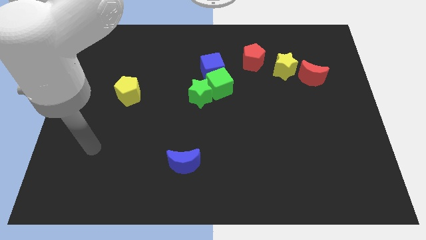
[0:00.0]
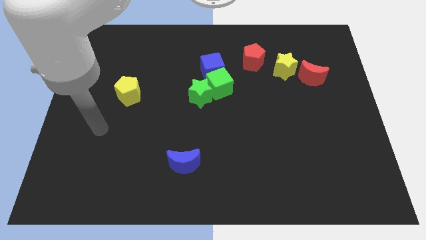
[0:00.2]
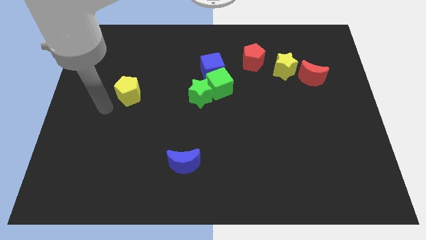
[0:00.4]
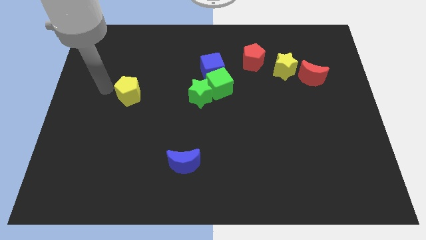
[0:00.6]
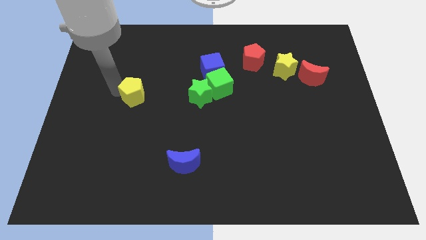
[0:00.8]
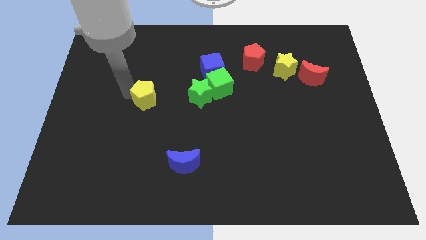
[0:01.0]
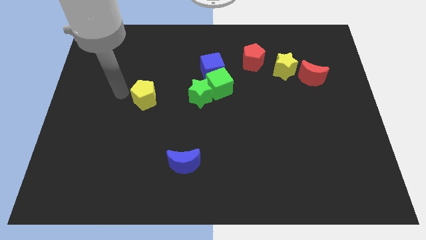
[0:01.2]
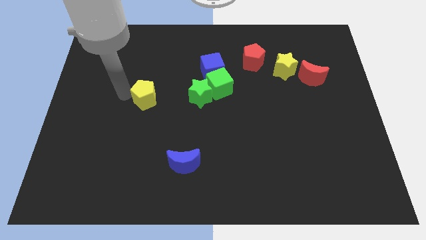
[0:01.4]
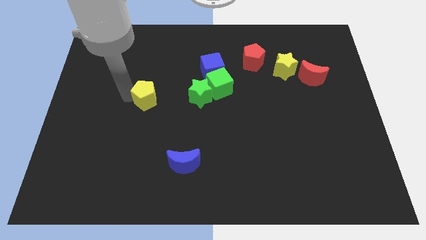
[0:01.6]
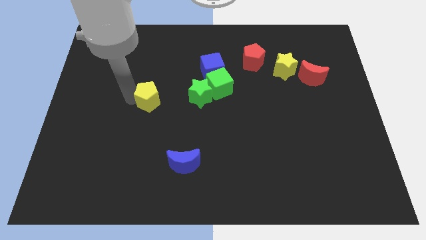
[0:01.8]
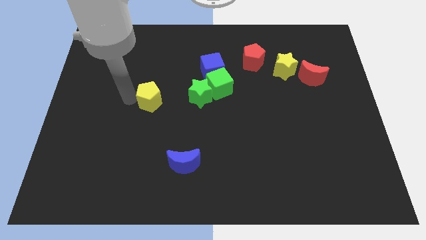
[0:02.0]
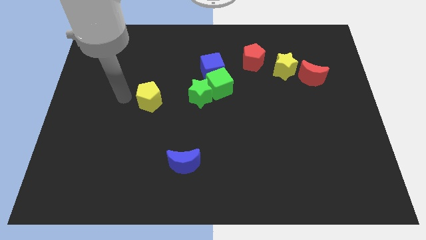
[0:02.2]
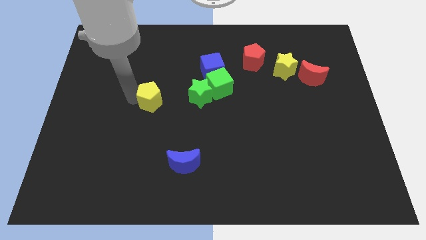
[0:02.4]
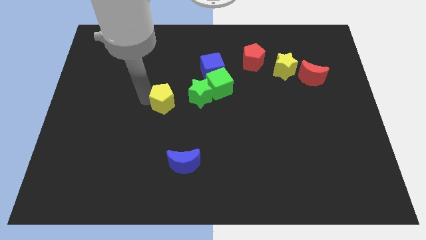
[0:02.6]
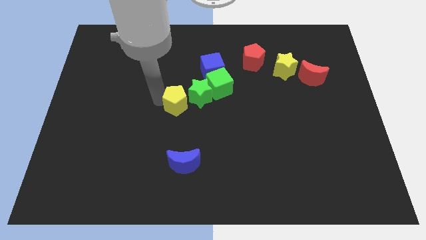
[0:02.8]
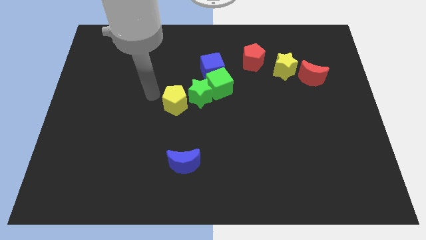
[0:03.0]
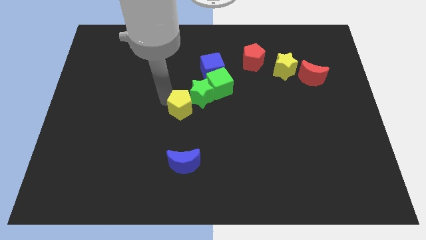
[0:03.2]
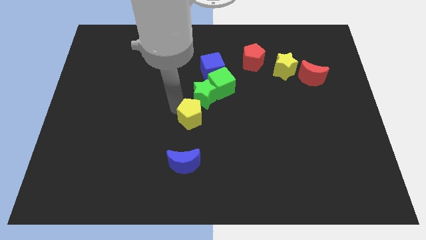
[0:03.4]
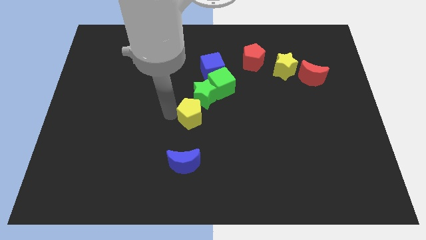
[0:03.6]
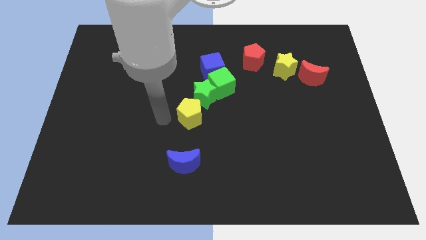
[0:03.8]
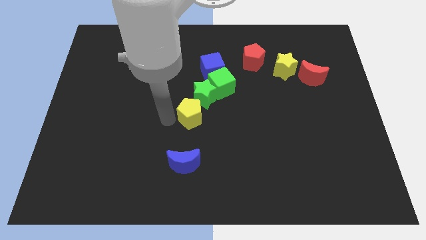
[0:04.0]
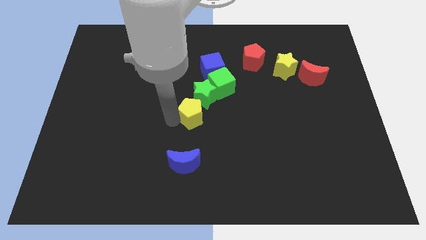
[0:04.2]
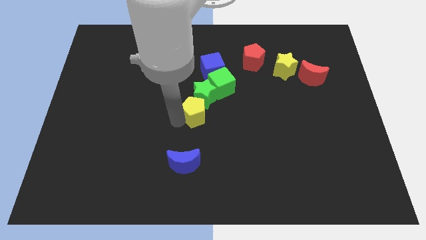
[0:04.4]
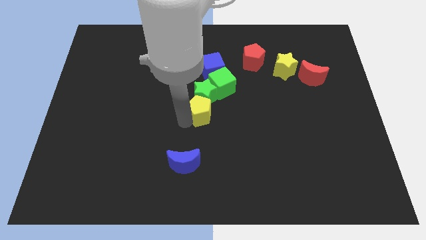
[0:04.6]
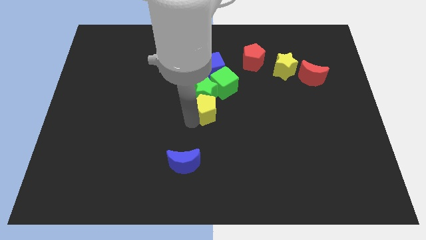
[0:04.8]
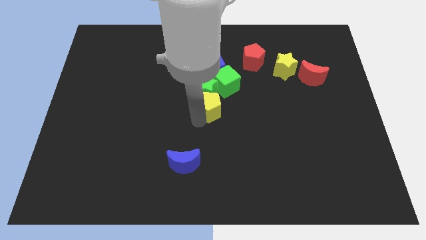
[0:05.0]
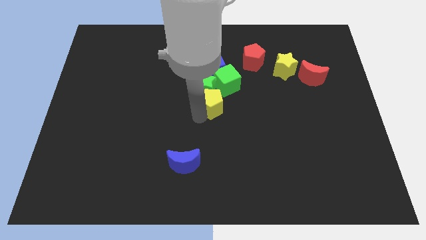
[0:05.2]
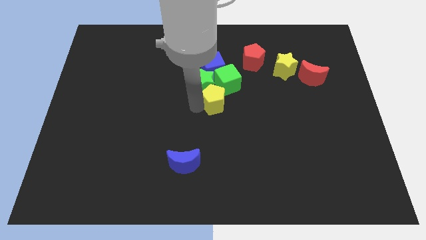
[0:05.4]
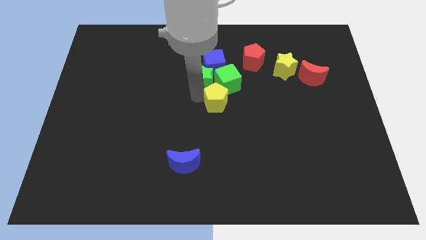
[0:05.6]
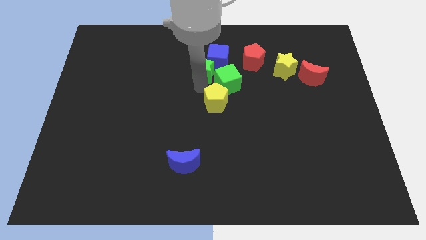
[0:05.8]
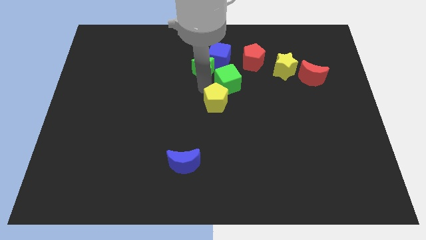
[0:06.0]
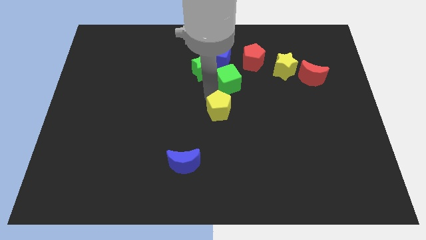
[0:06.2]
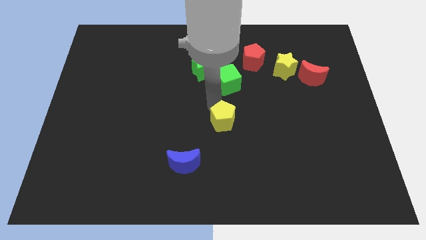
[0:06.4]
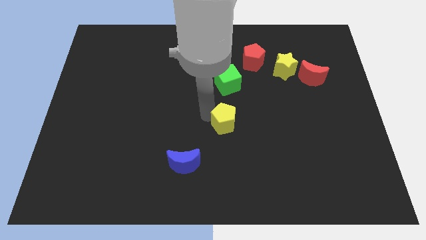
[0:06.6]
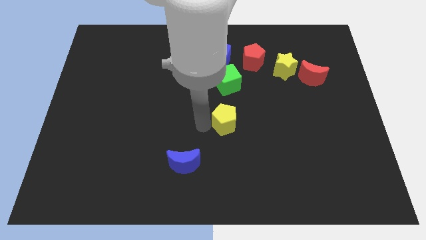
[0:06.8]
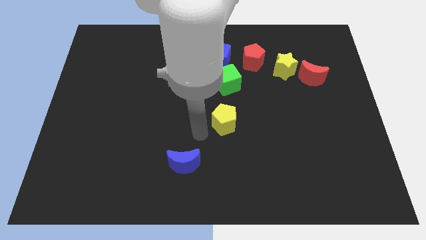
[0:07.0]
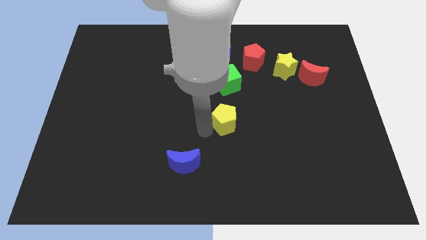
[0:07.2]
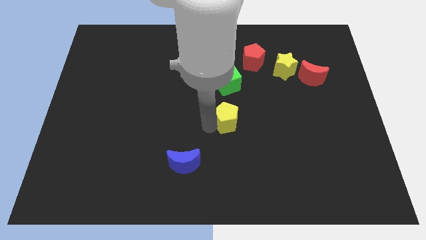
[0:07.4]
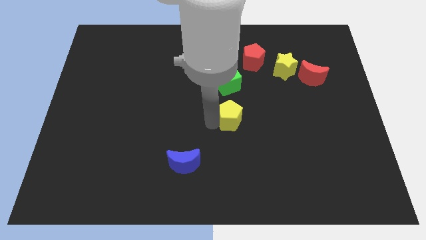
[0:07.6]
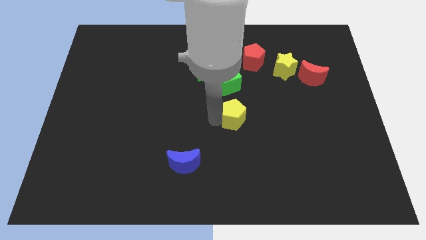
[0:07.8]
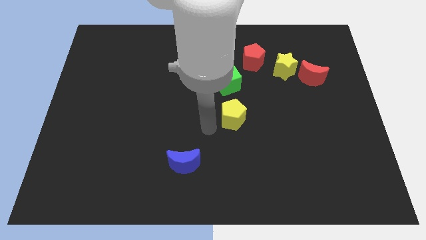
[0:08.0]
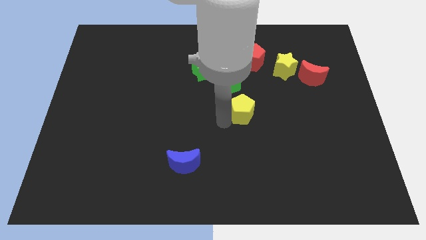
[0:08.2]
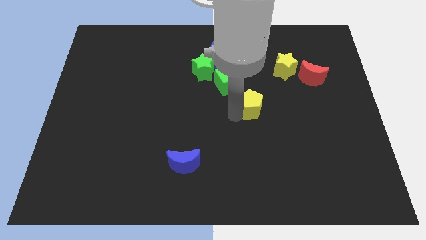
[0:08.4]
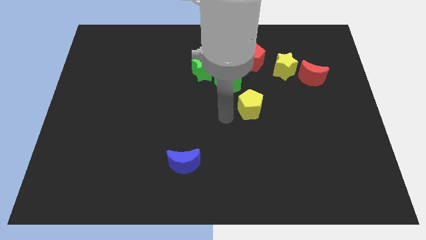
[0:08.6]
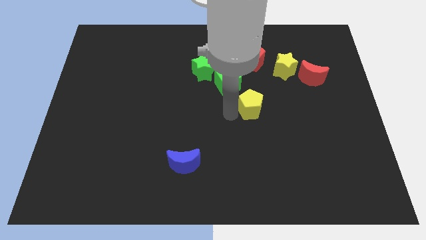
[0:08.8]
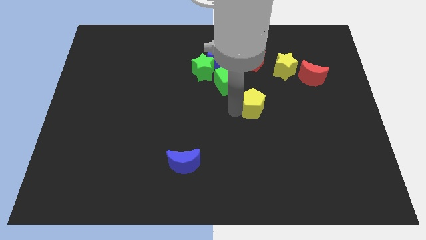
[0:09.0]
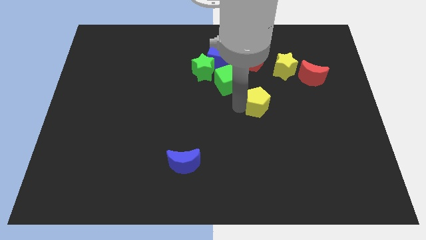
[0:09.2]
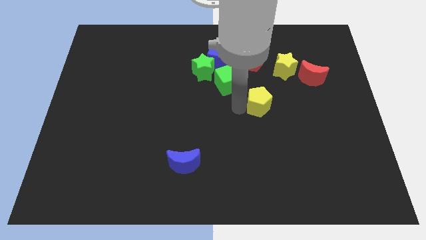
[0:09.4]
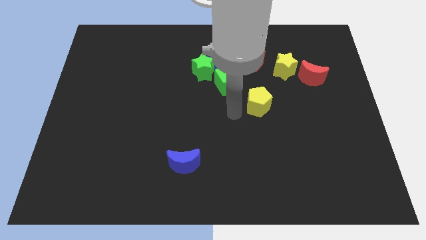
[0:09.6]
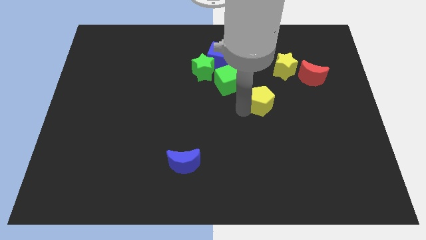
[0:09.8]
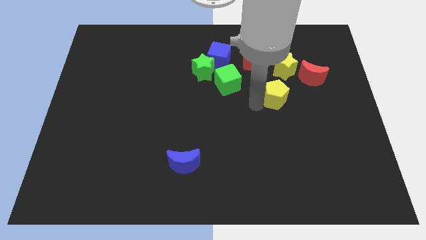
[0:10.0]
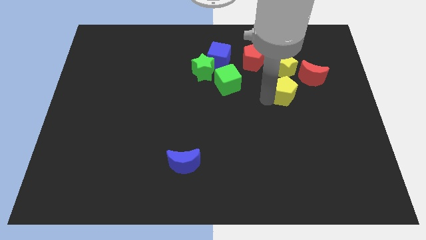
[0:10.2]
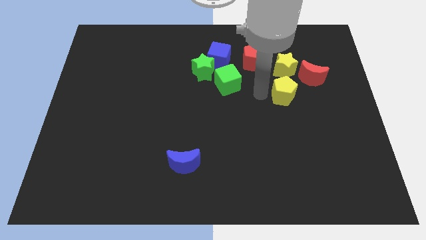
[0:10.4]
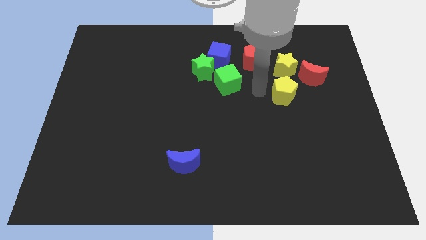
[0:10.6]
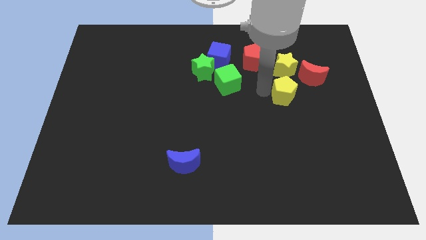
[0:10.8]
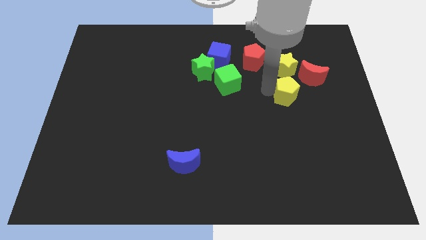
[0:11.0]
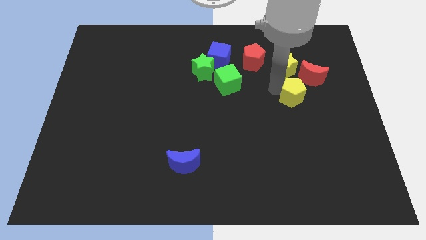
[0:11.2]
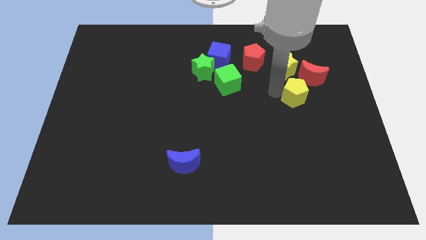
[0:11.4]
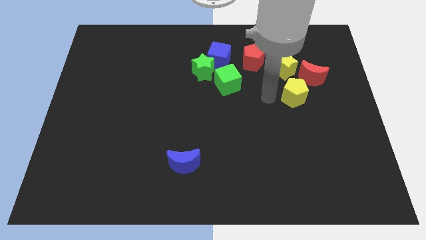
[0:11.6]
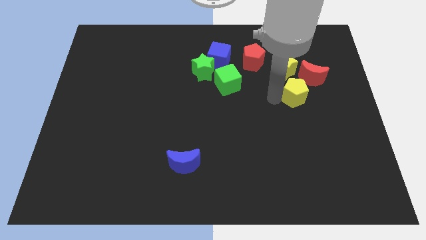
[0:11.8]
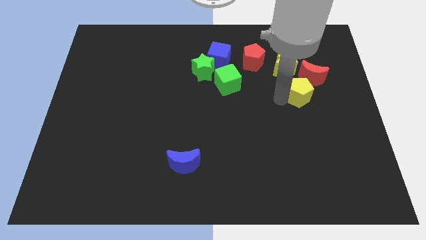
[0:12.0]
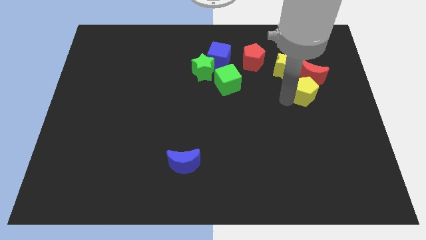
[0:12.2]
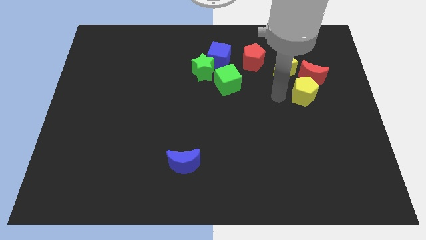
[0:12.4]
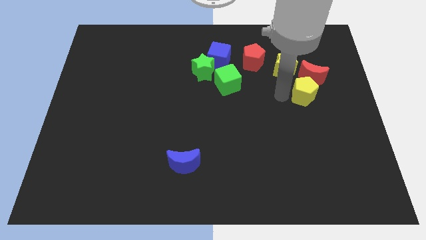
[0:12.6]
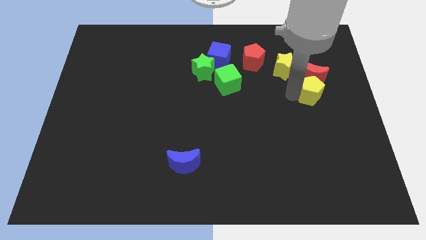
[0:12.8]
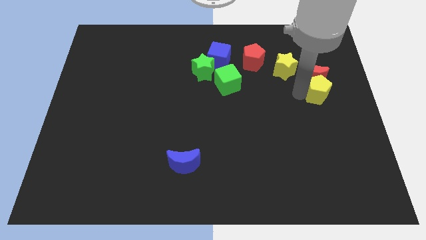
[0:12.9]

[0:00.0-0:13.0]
move the yellow pentagon to the center right
